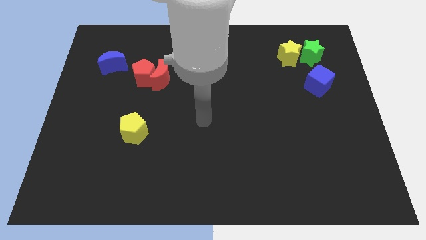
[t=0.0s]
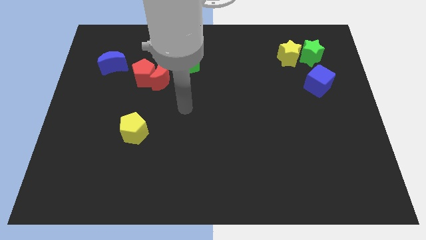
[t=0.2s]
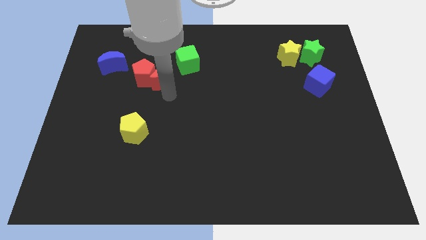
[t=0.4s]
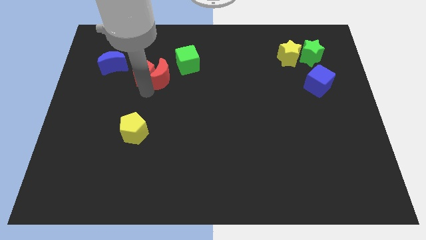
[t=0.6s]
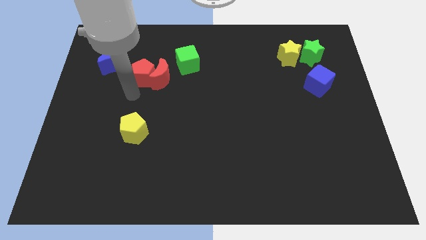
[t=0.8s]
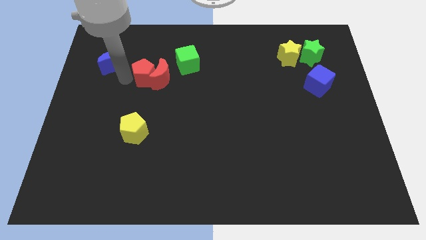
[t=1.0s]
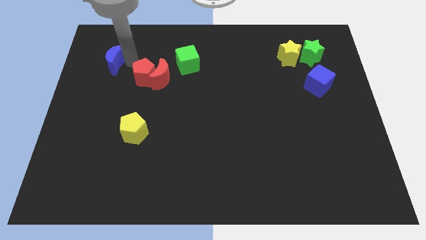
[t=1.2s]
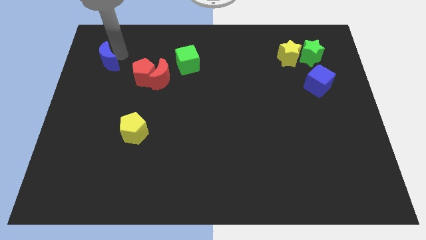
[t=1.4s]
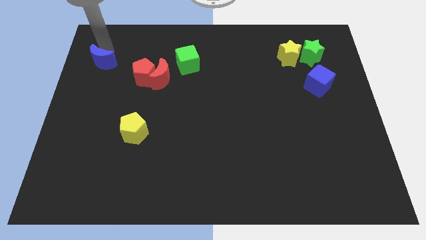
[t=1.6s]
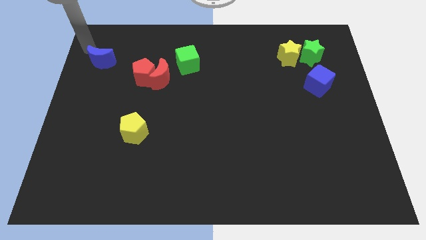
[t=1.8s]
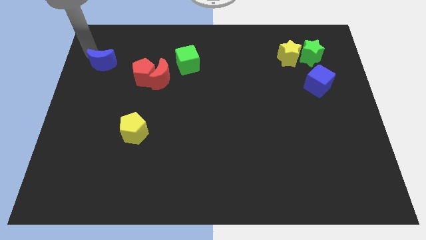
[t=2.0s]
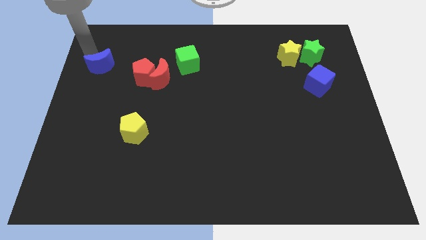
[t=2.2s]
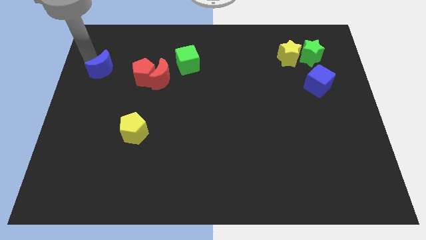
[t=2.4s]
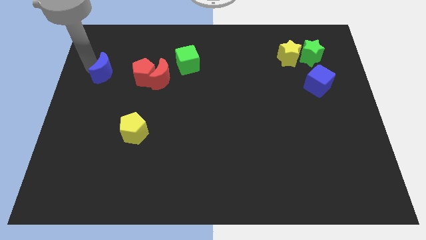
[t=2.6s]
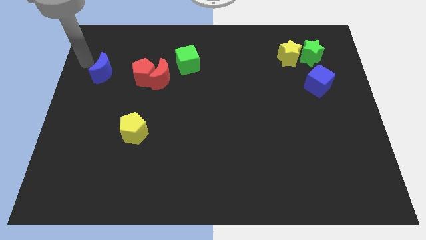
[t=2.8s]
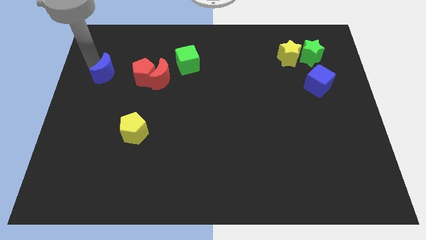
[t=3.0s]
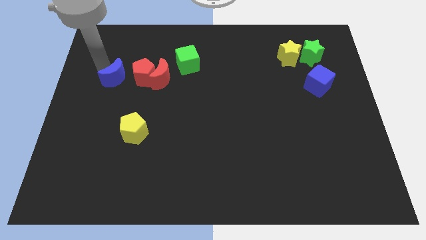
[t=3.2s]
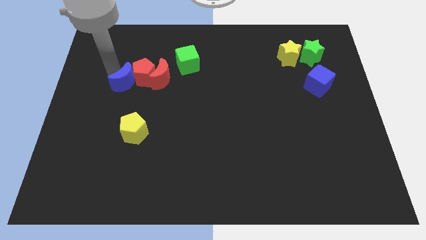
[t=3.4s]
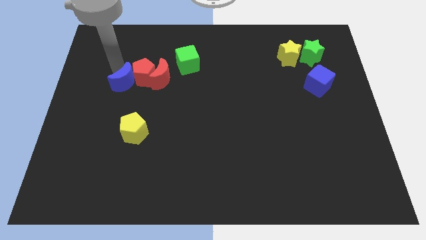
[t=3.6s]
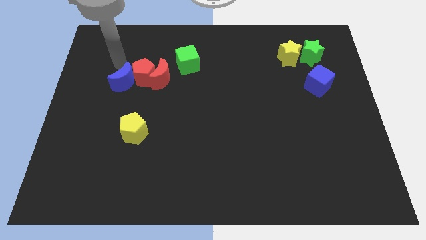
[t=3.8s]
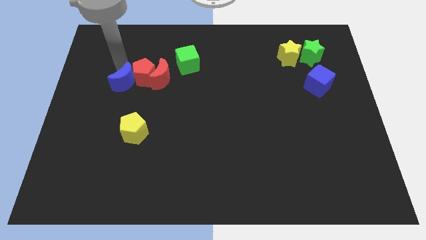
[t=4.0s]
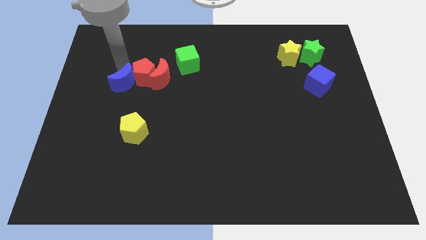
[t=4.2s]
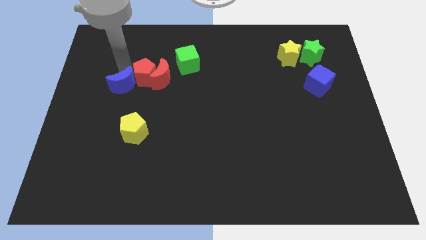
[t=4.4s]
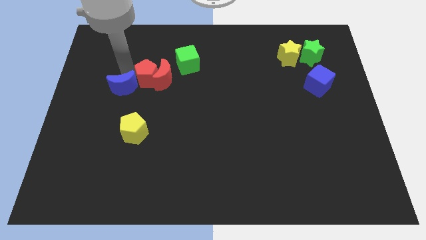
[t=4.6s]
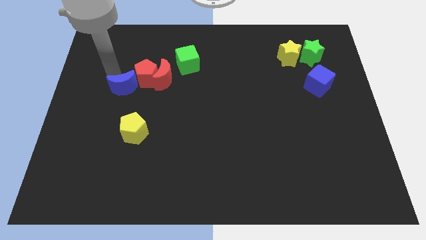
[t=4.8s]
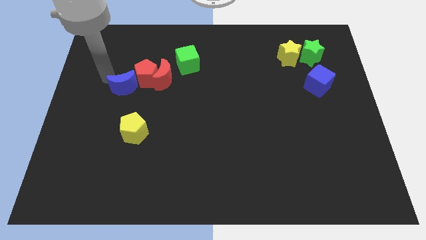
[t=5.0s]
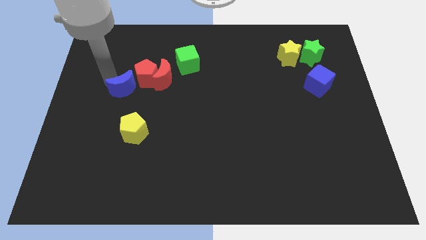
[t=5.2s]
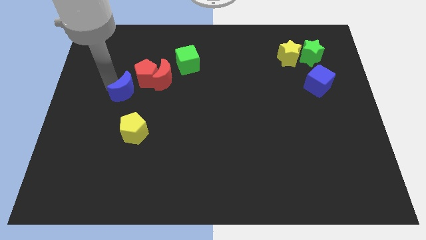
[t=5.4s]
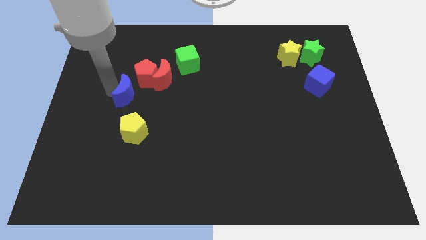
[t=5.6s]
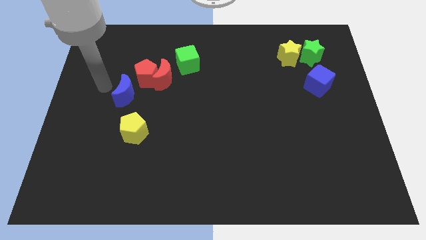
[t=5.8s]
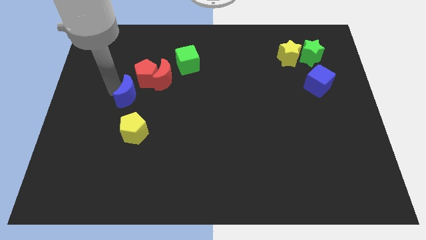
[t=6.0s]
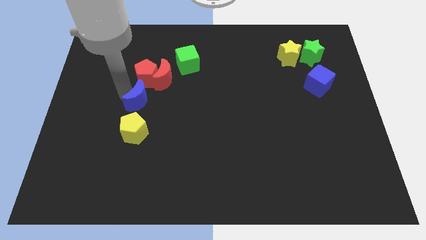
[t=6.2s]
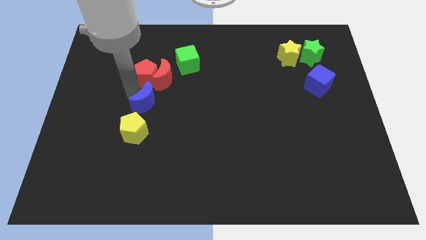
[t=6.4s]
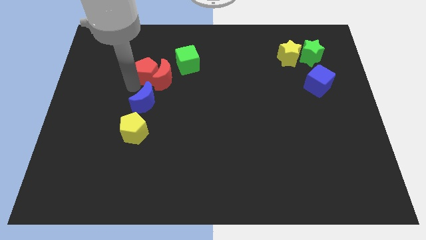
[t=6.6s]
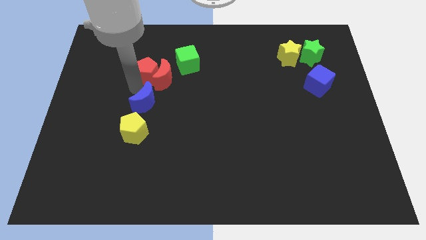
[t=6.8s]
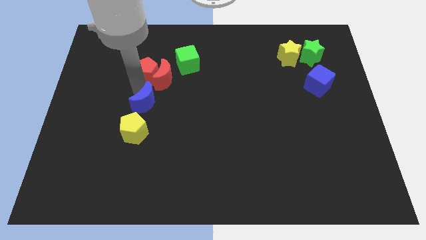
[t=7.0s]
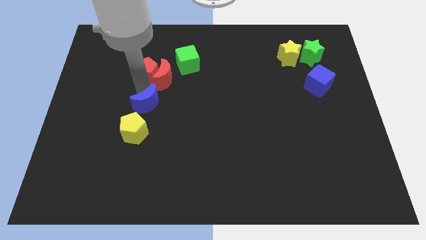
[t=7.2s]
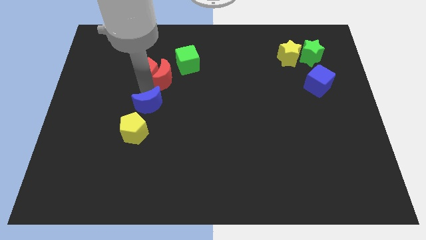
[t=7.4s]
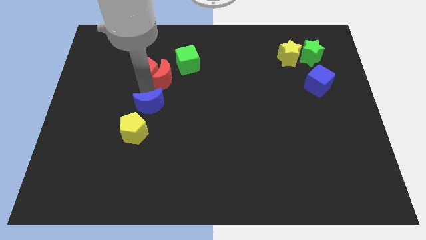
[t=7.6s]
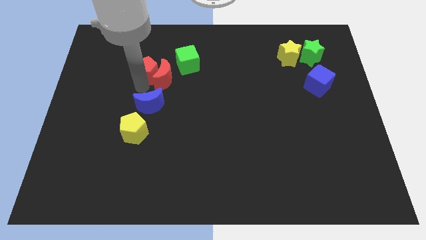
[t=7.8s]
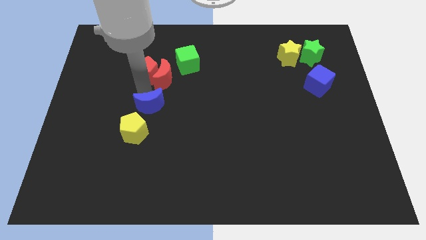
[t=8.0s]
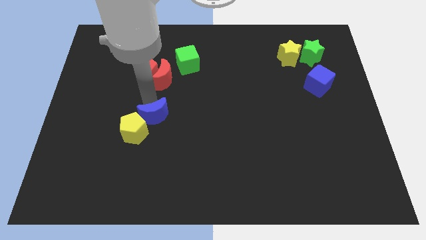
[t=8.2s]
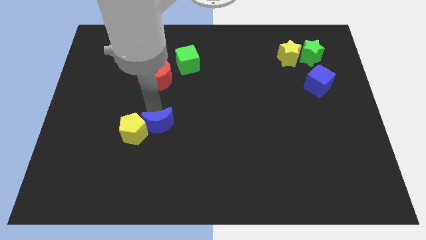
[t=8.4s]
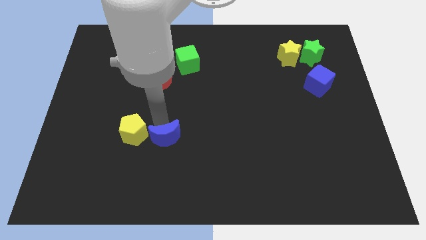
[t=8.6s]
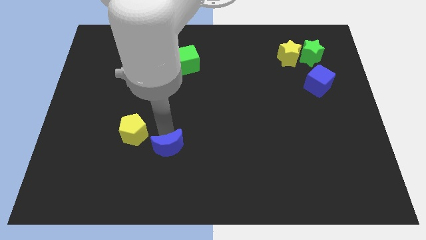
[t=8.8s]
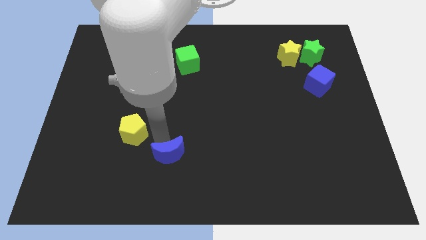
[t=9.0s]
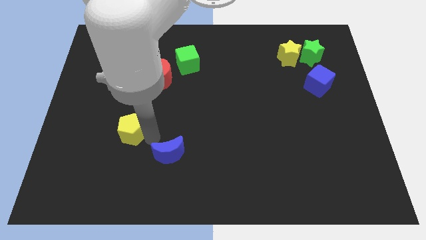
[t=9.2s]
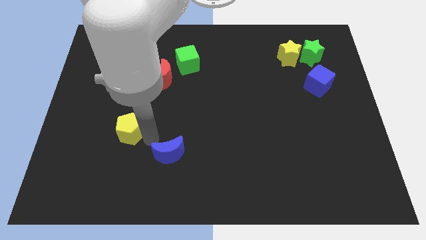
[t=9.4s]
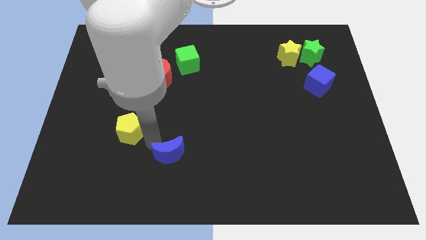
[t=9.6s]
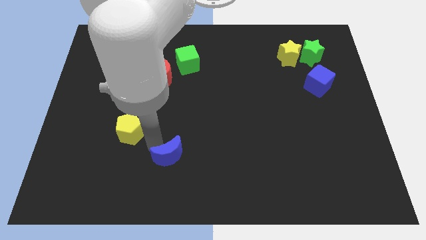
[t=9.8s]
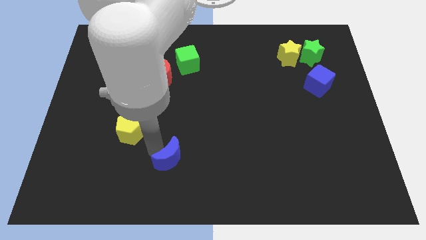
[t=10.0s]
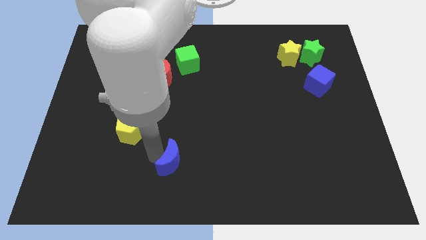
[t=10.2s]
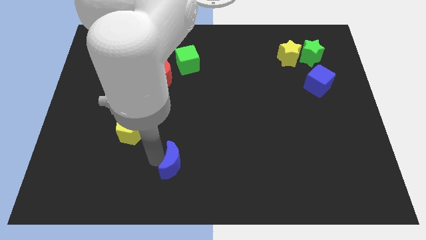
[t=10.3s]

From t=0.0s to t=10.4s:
move the blue moon to the bottom side

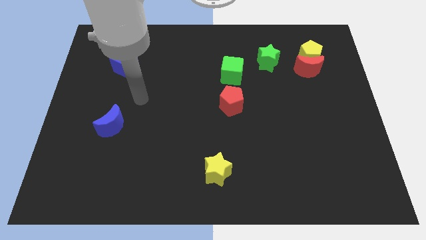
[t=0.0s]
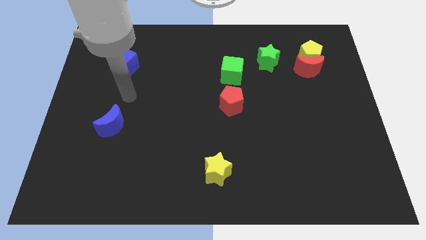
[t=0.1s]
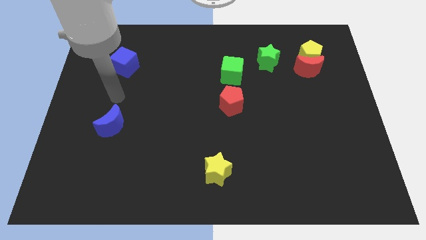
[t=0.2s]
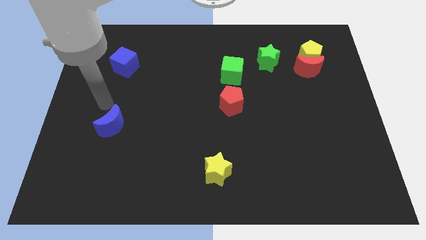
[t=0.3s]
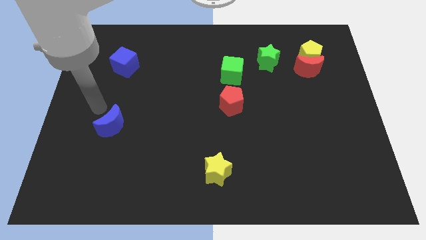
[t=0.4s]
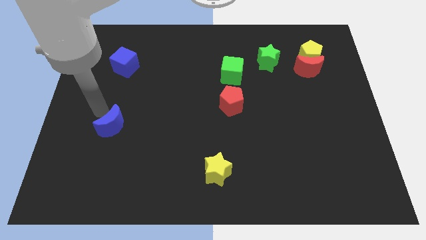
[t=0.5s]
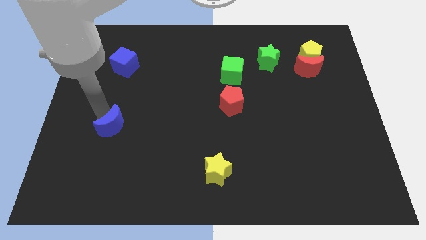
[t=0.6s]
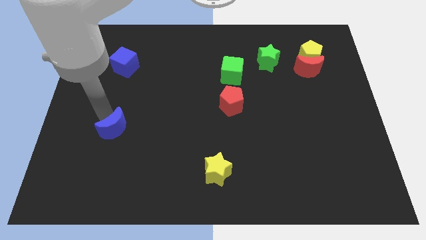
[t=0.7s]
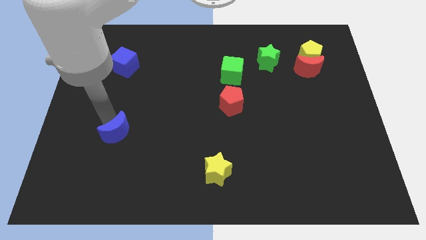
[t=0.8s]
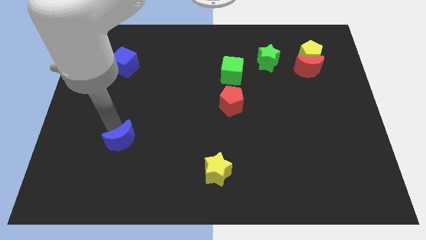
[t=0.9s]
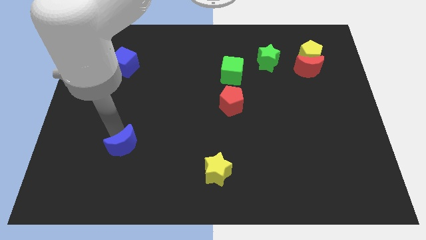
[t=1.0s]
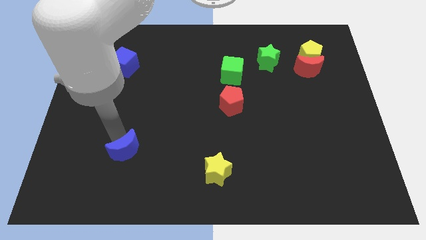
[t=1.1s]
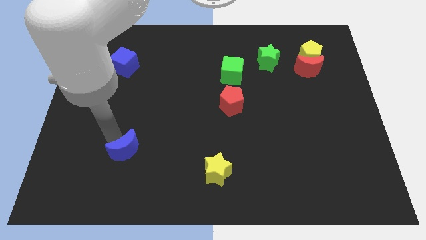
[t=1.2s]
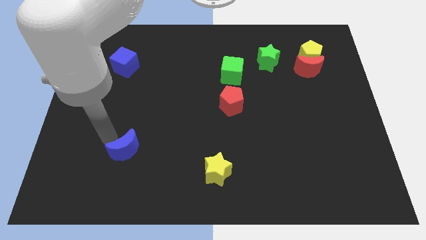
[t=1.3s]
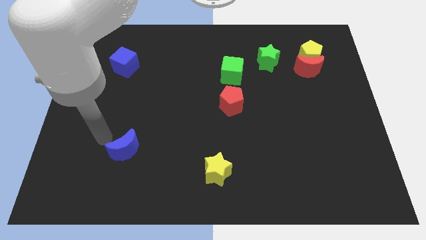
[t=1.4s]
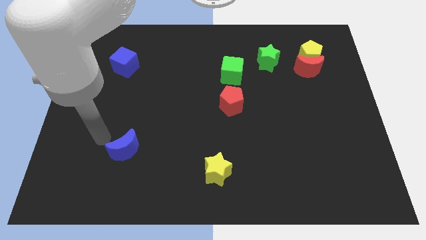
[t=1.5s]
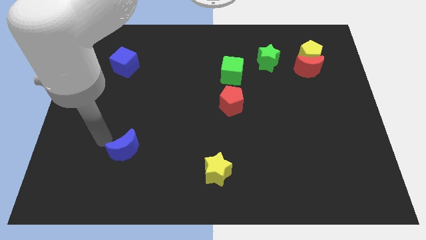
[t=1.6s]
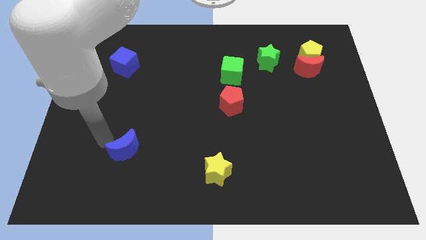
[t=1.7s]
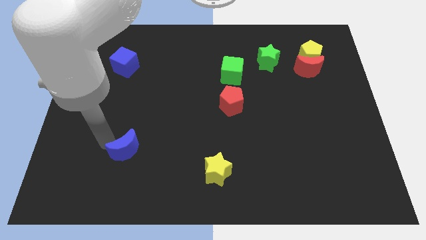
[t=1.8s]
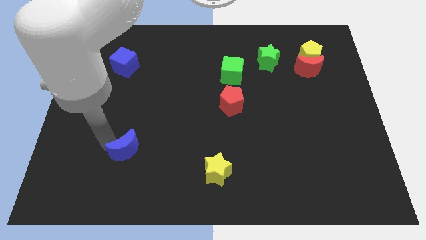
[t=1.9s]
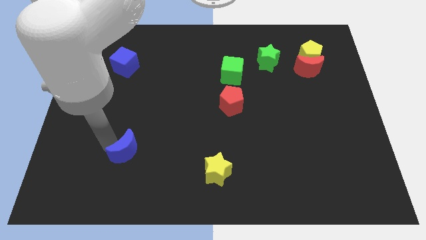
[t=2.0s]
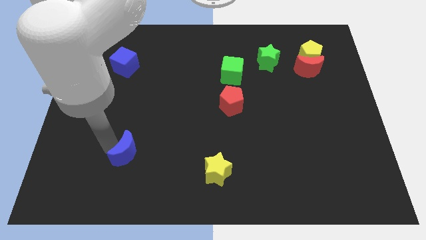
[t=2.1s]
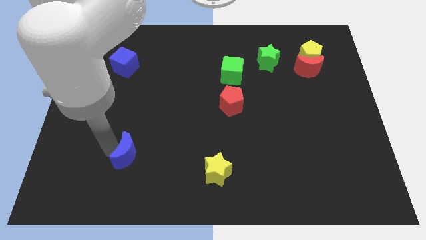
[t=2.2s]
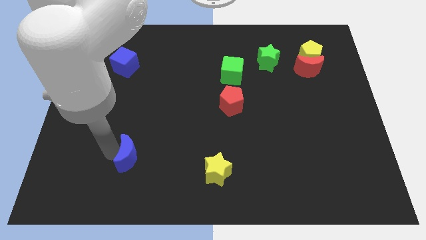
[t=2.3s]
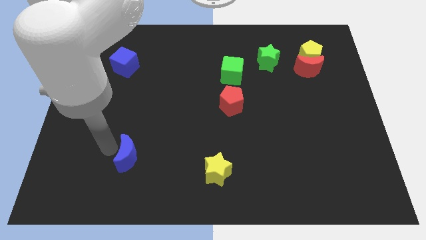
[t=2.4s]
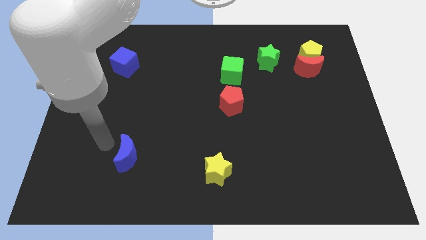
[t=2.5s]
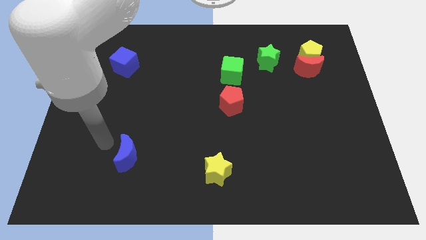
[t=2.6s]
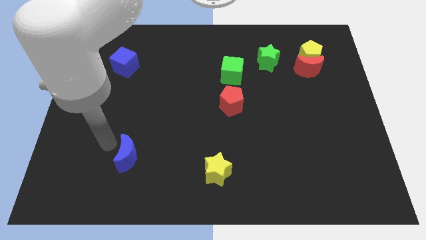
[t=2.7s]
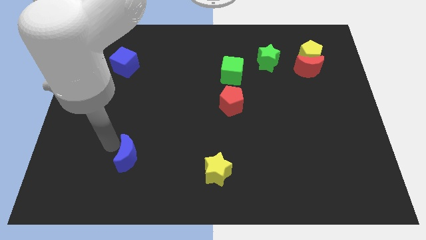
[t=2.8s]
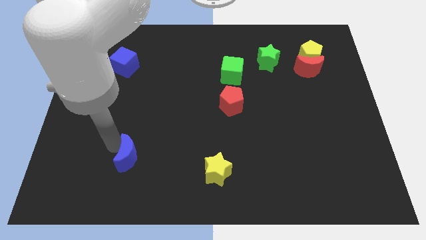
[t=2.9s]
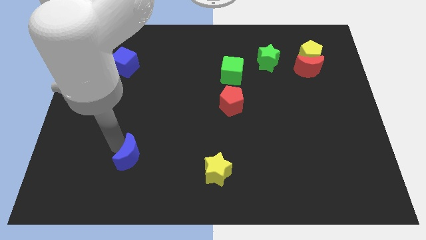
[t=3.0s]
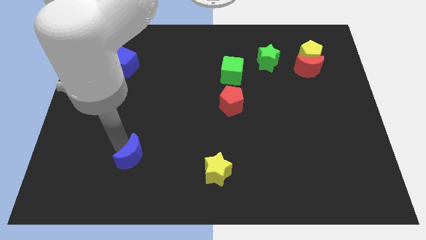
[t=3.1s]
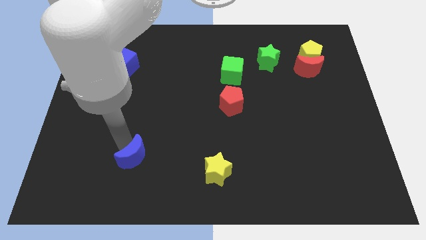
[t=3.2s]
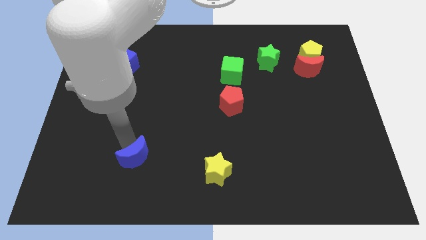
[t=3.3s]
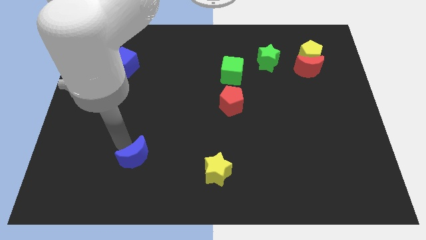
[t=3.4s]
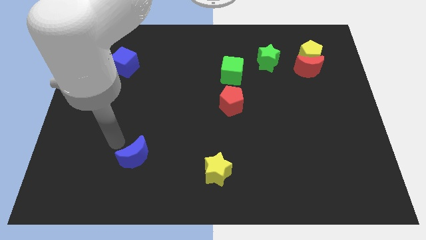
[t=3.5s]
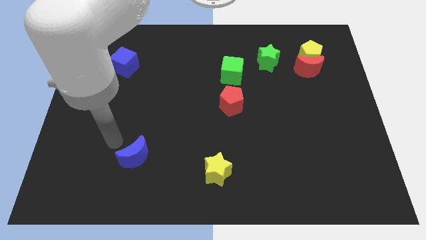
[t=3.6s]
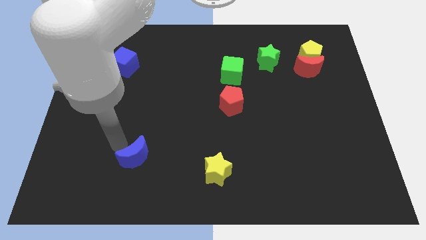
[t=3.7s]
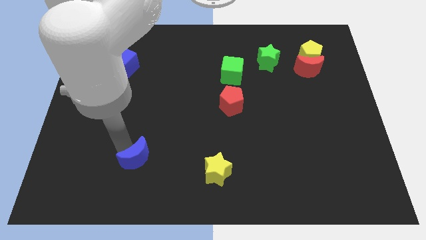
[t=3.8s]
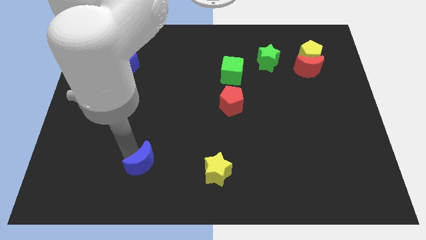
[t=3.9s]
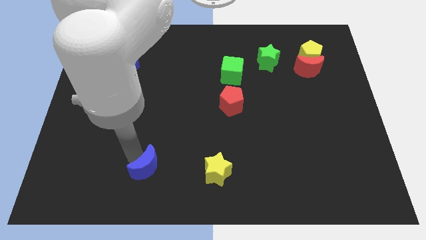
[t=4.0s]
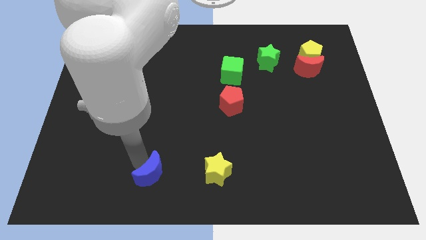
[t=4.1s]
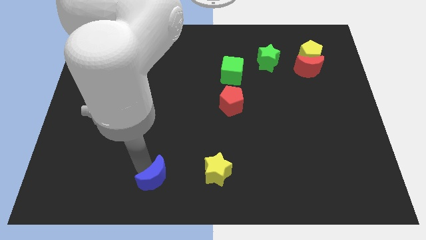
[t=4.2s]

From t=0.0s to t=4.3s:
move the blue moon to the bottom
